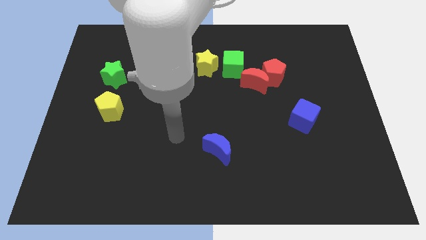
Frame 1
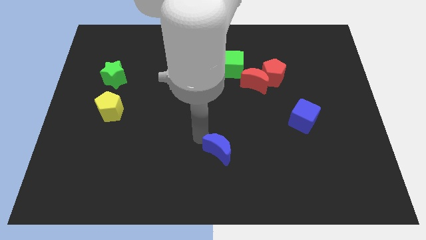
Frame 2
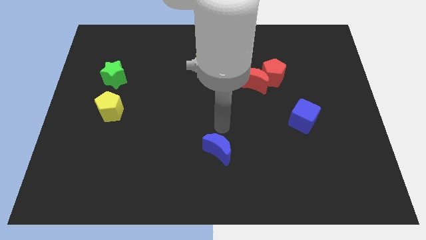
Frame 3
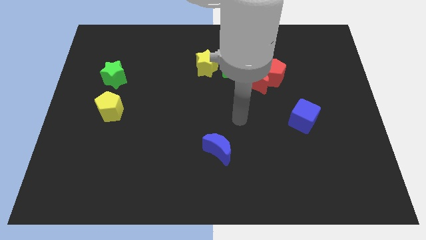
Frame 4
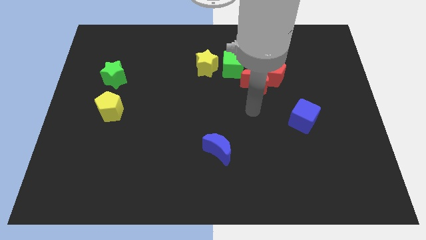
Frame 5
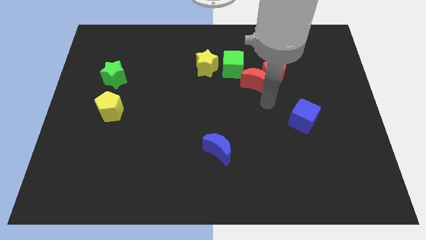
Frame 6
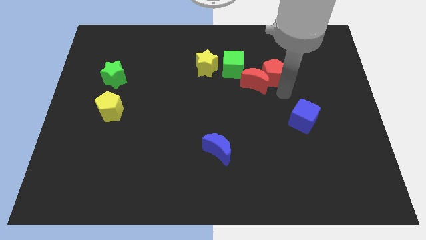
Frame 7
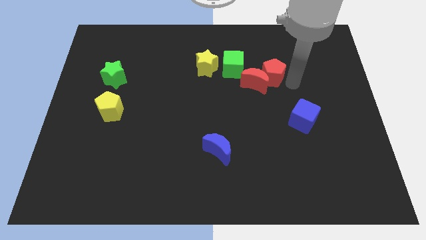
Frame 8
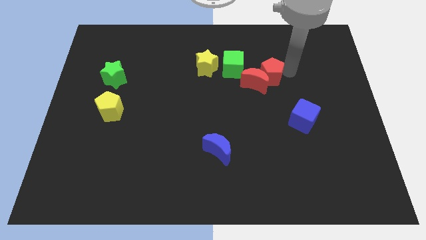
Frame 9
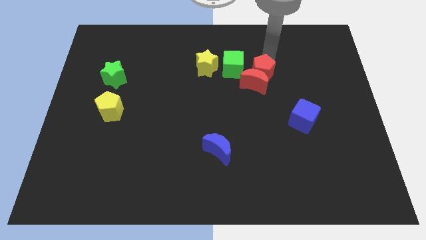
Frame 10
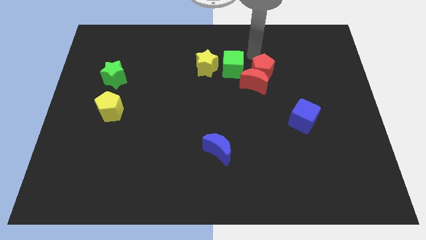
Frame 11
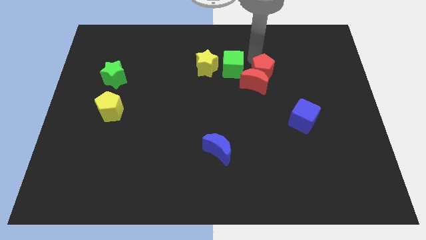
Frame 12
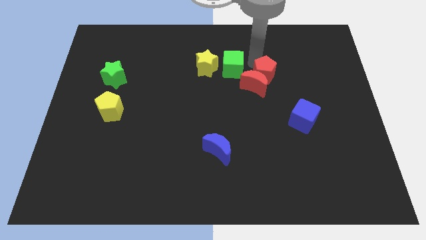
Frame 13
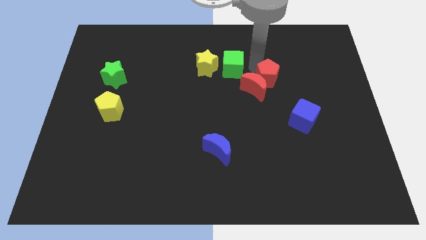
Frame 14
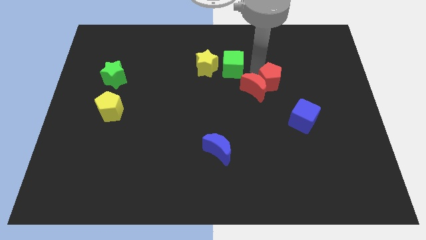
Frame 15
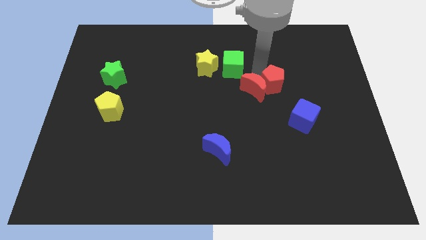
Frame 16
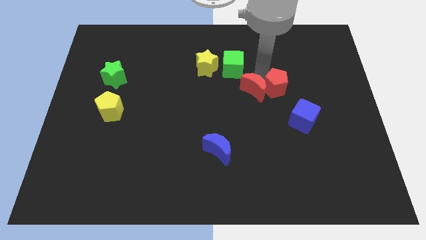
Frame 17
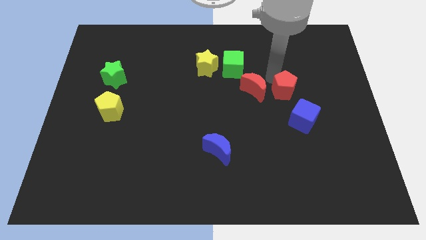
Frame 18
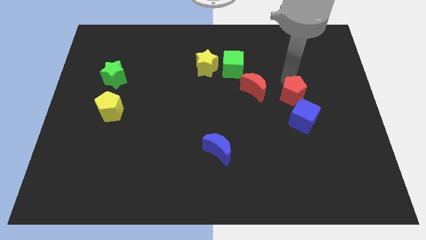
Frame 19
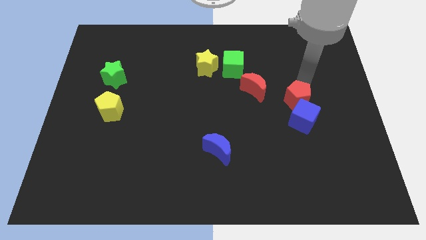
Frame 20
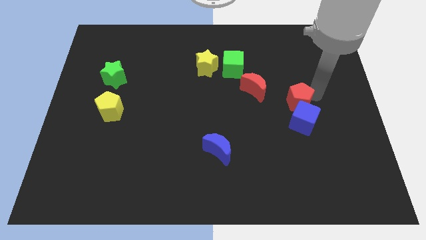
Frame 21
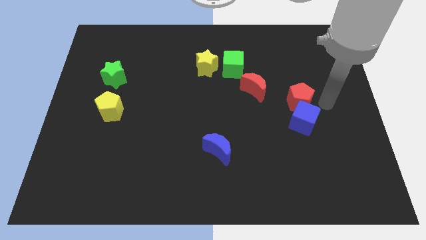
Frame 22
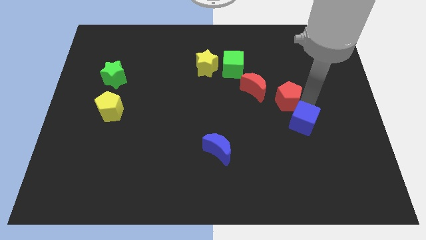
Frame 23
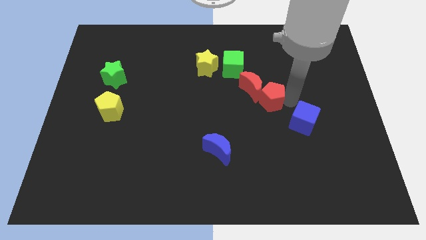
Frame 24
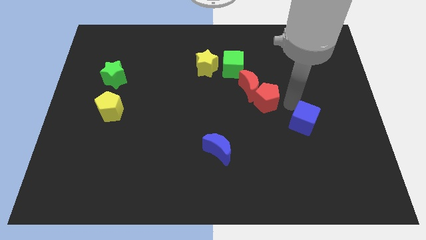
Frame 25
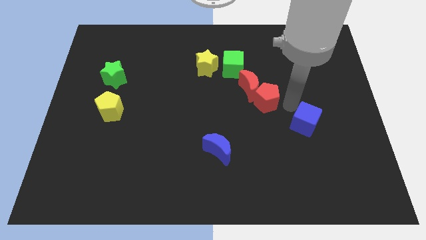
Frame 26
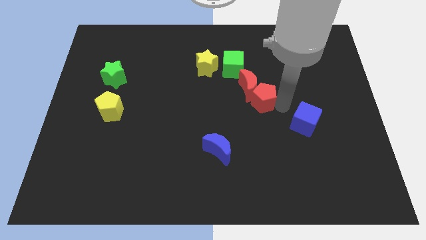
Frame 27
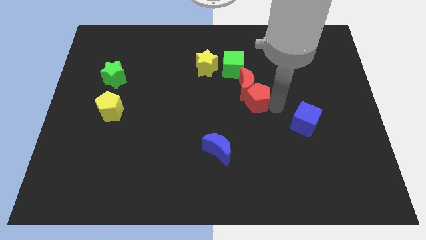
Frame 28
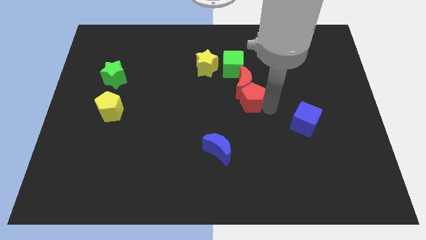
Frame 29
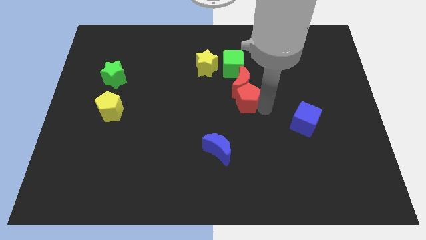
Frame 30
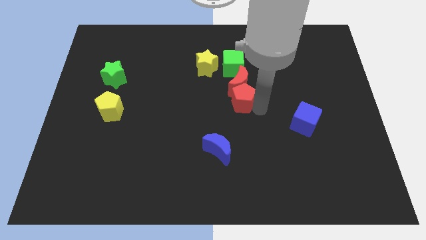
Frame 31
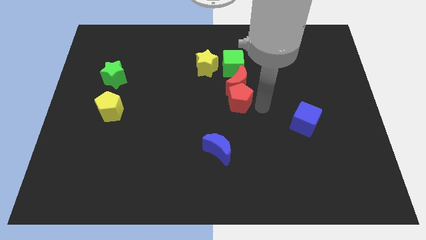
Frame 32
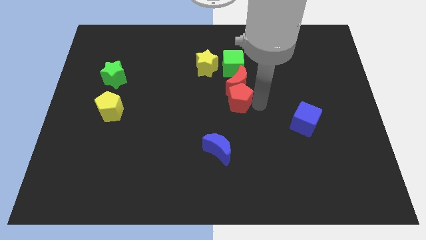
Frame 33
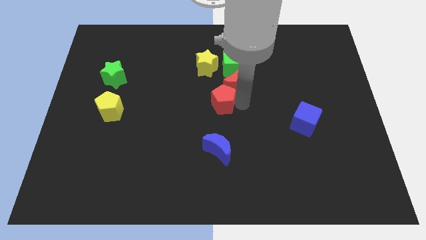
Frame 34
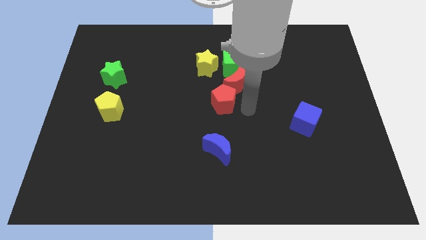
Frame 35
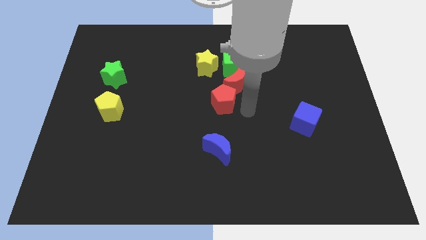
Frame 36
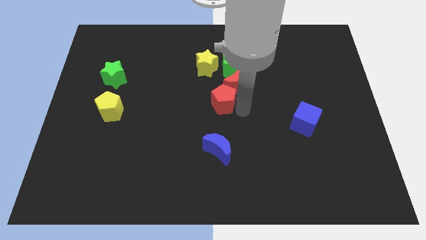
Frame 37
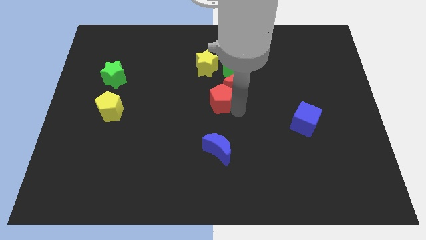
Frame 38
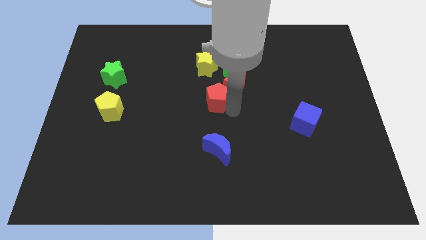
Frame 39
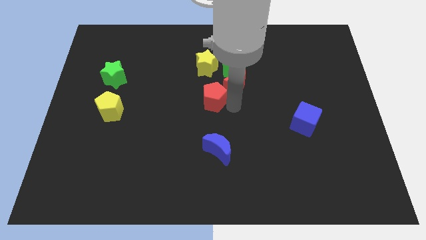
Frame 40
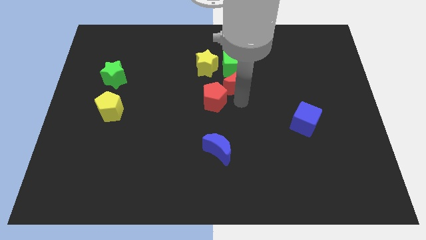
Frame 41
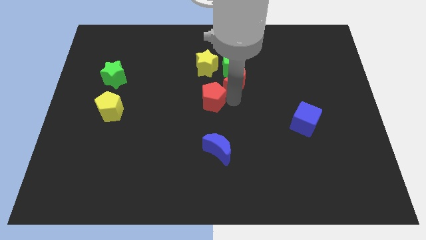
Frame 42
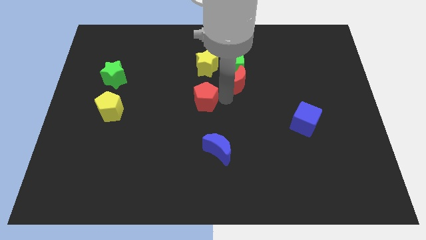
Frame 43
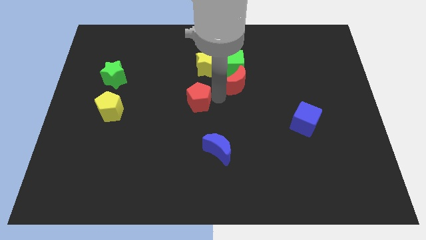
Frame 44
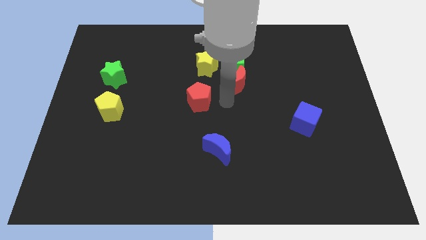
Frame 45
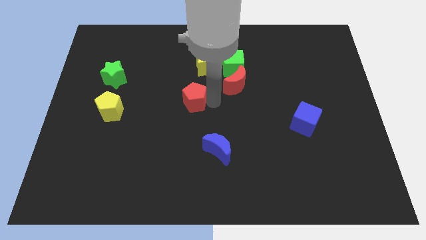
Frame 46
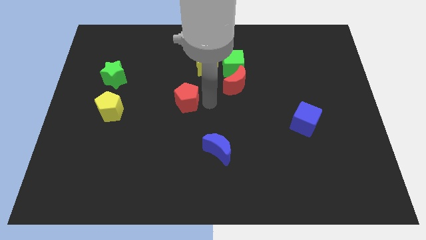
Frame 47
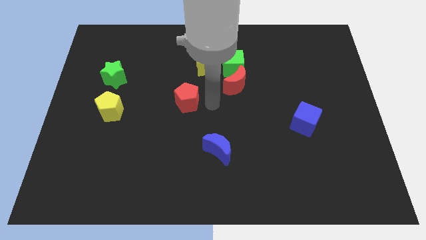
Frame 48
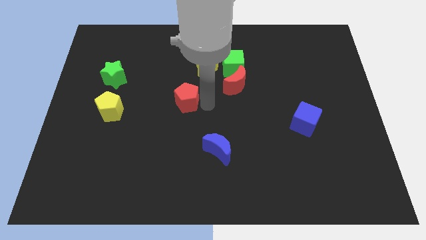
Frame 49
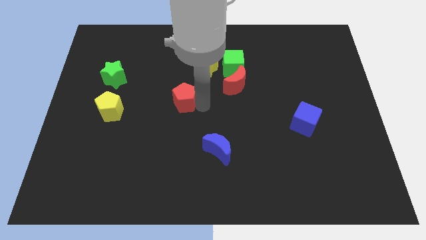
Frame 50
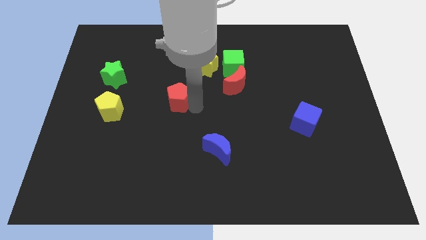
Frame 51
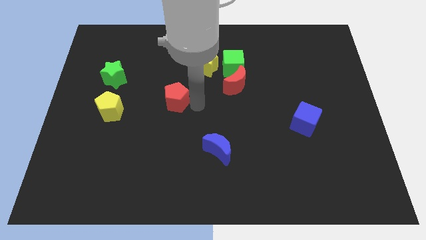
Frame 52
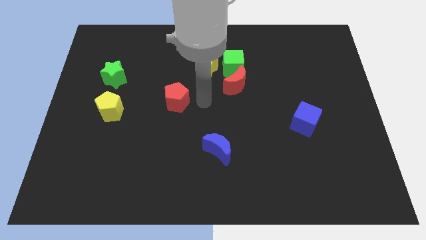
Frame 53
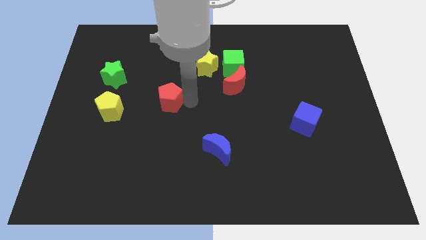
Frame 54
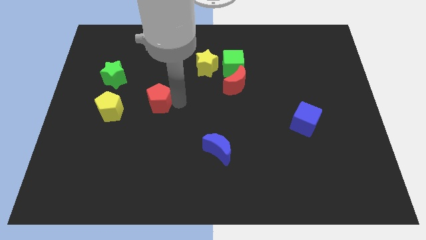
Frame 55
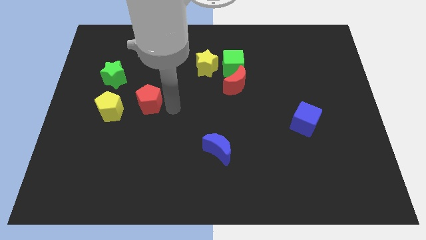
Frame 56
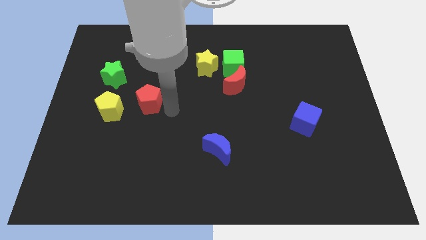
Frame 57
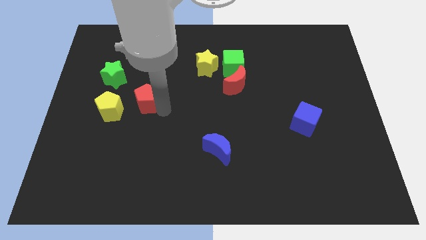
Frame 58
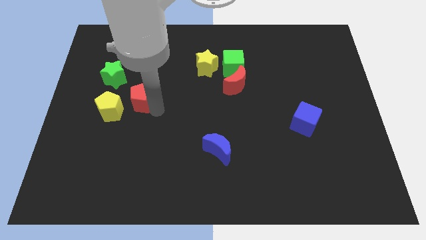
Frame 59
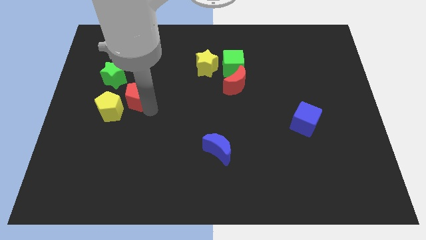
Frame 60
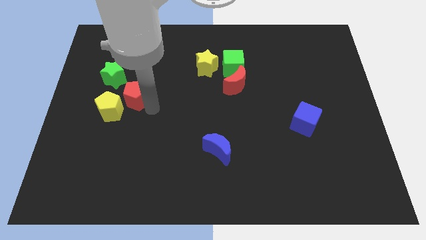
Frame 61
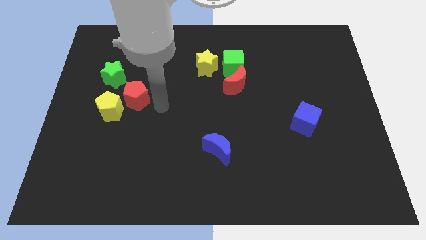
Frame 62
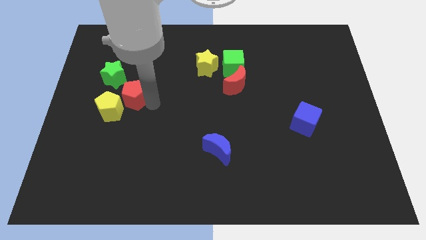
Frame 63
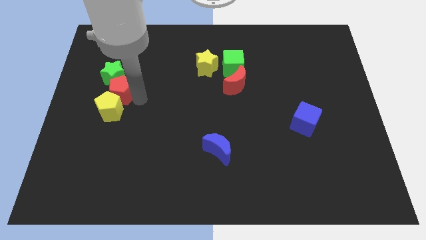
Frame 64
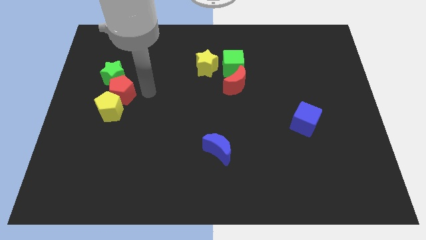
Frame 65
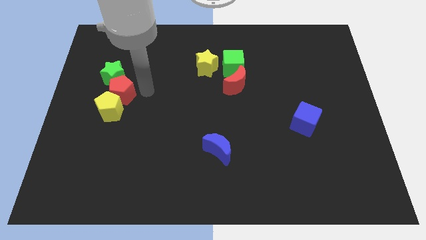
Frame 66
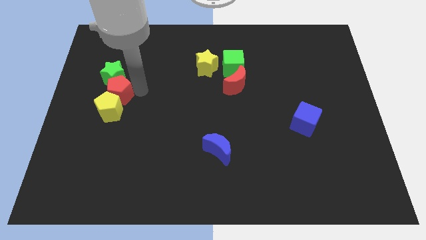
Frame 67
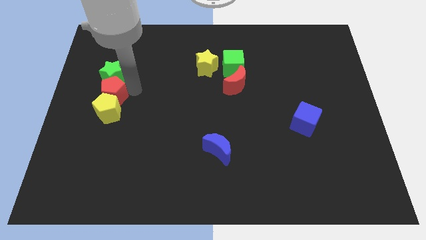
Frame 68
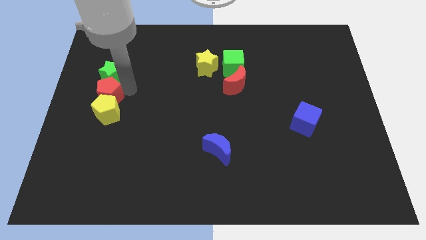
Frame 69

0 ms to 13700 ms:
push the red pentagon to the center left
